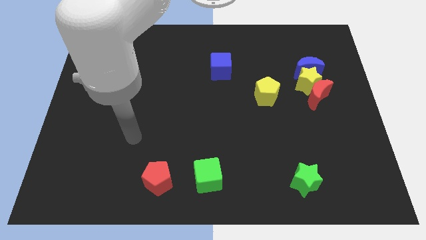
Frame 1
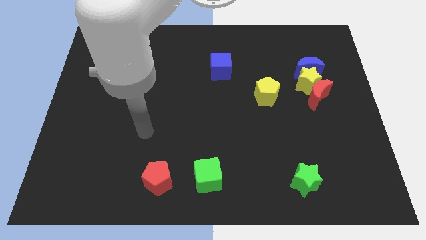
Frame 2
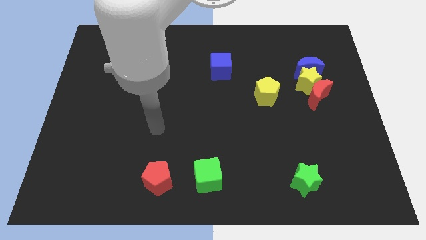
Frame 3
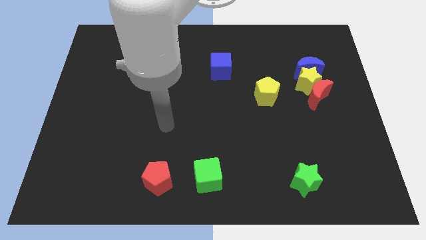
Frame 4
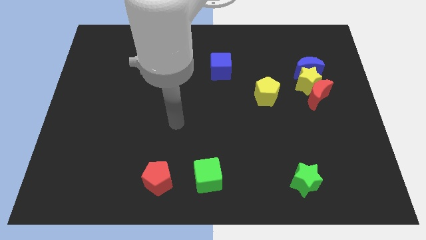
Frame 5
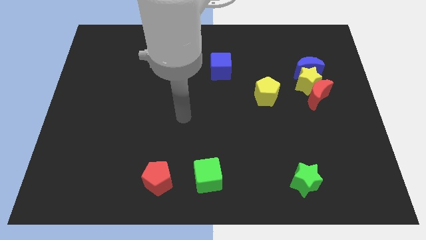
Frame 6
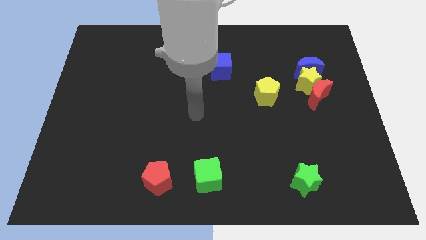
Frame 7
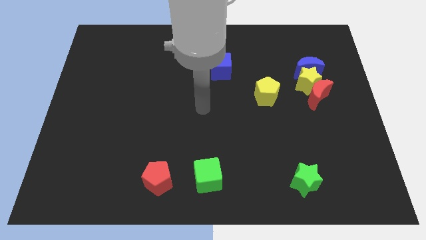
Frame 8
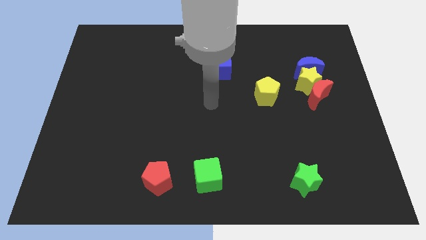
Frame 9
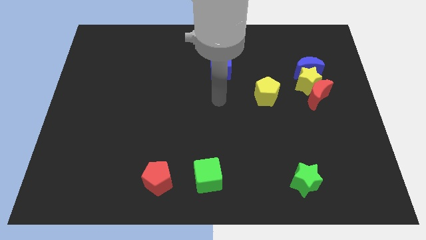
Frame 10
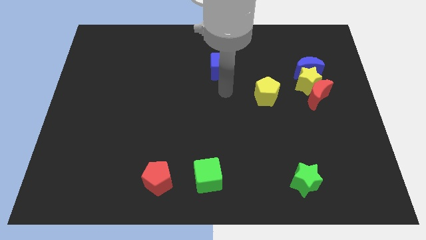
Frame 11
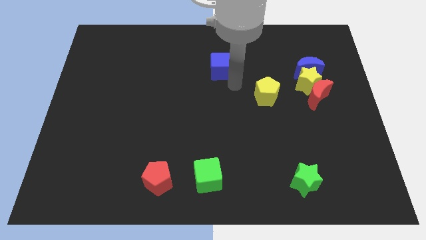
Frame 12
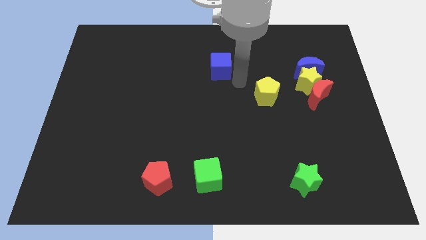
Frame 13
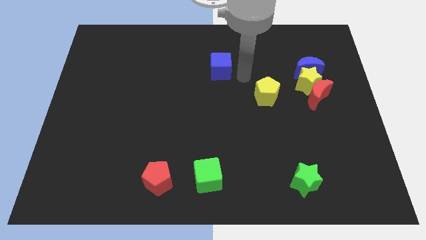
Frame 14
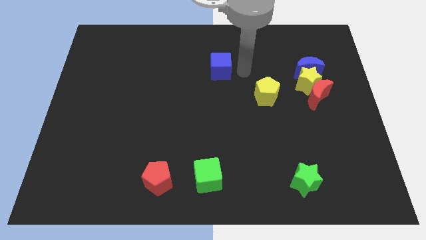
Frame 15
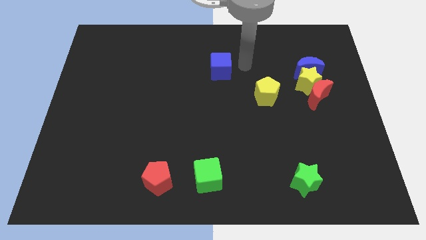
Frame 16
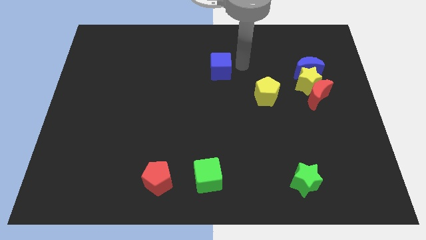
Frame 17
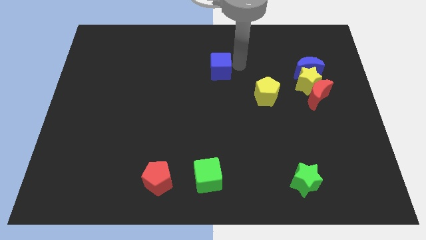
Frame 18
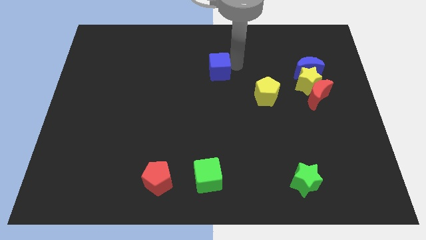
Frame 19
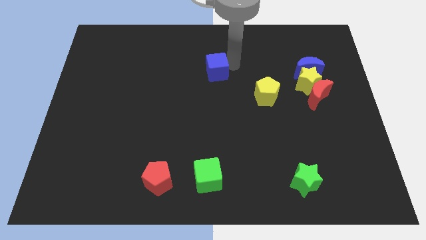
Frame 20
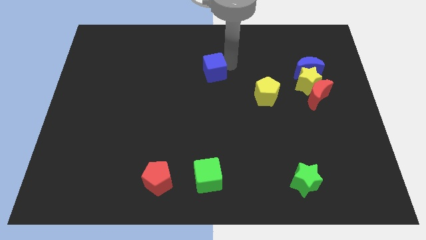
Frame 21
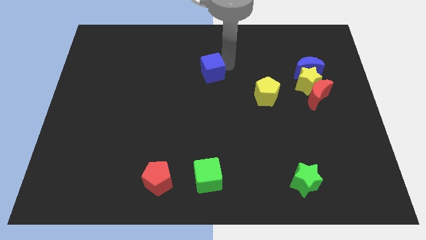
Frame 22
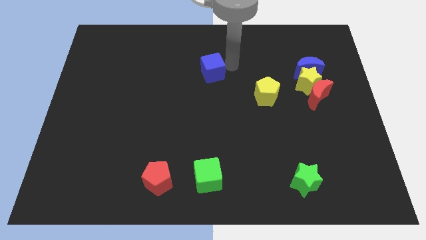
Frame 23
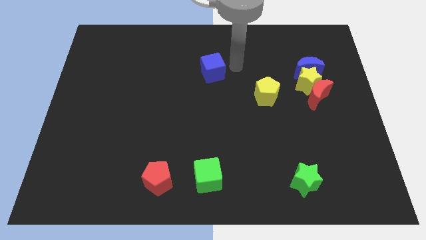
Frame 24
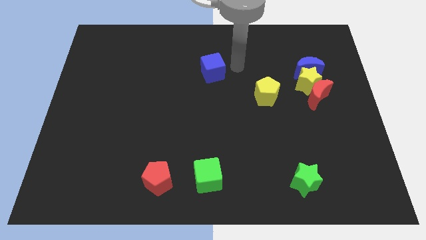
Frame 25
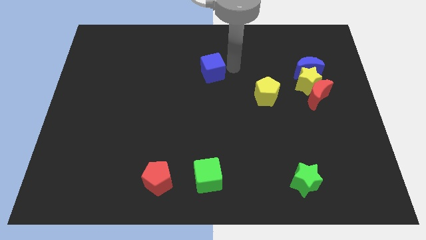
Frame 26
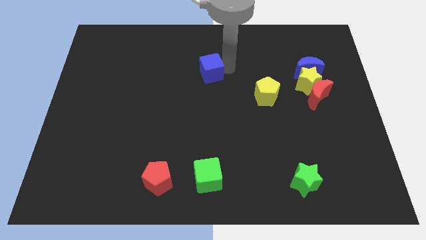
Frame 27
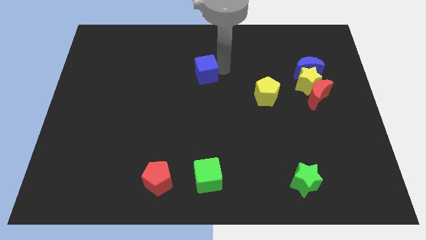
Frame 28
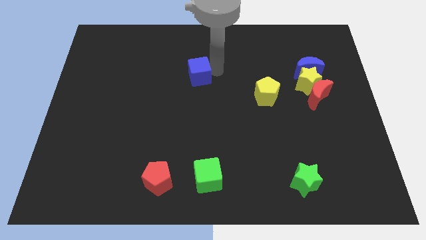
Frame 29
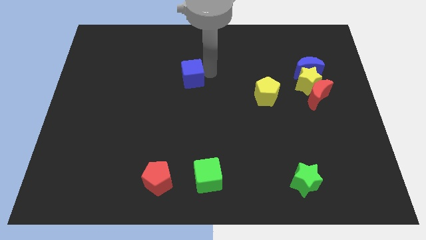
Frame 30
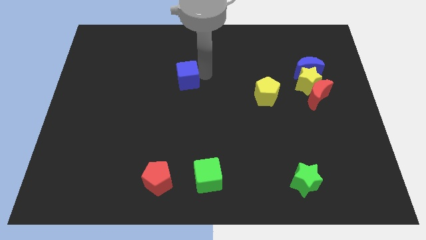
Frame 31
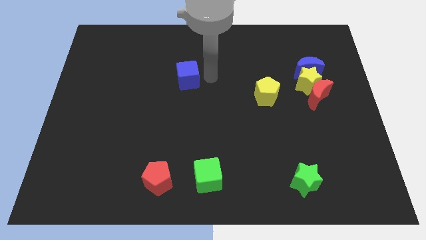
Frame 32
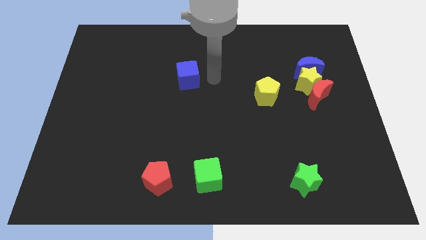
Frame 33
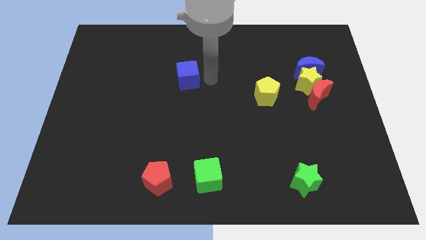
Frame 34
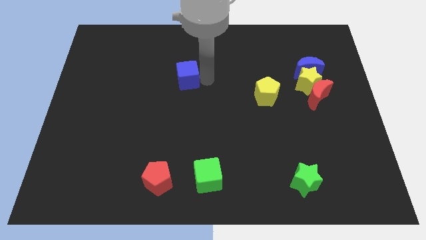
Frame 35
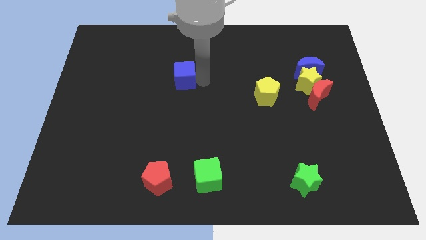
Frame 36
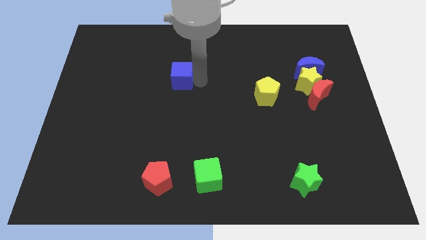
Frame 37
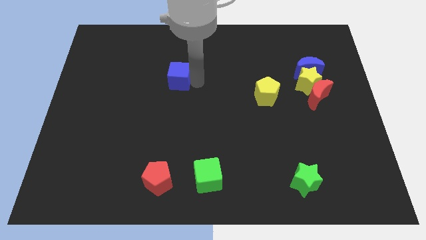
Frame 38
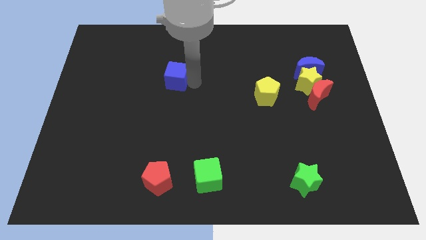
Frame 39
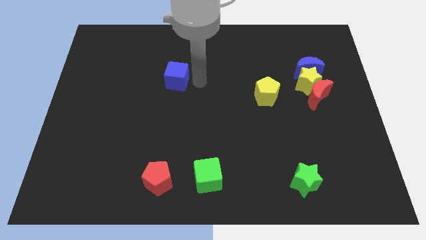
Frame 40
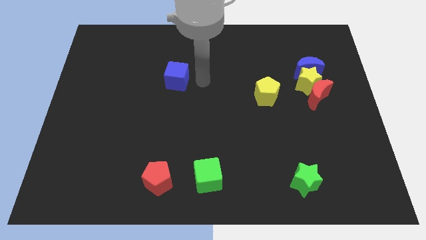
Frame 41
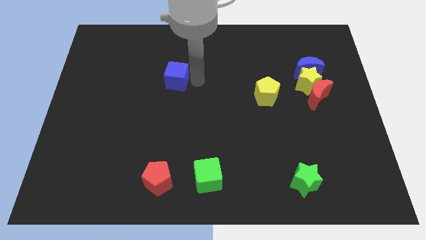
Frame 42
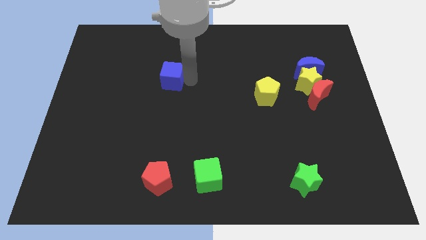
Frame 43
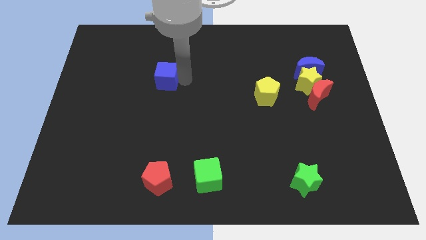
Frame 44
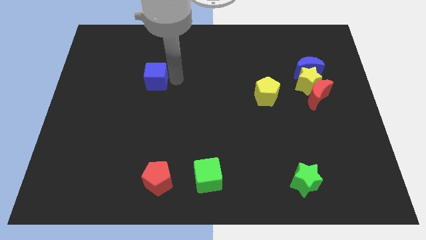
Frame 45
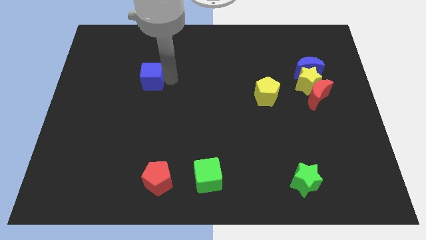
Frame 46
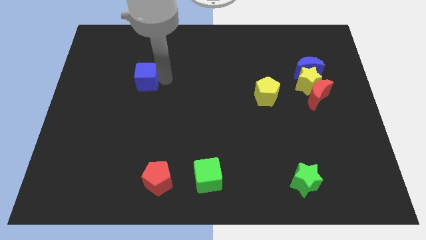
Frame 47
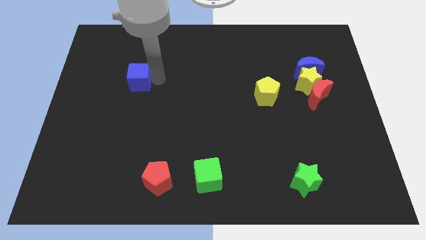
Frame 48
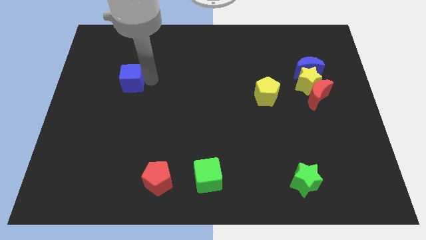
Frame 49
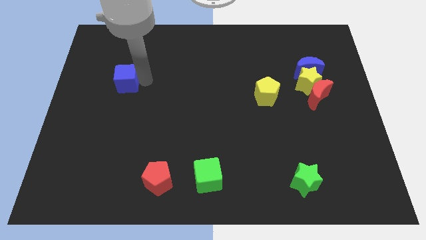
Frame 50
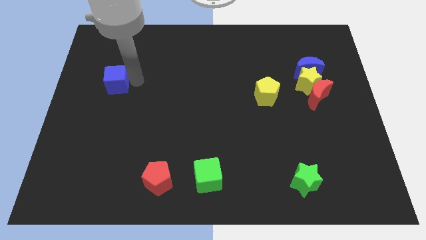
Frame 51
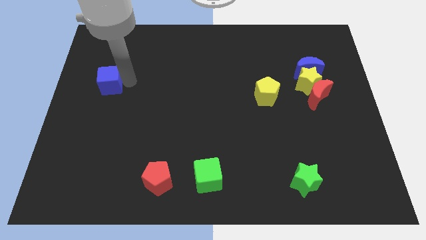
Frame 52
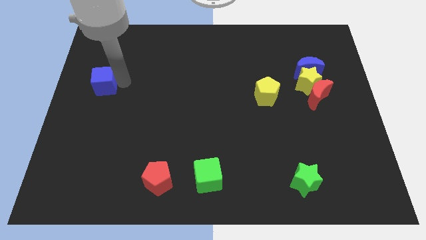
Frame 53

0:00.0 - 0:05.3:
push the blue cube to the center left

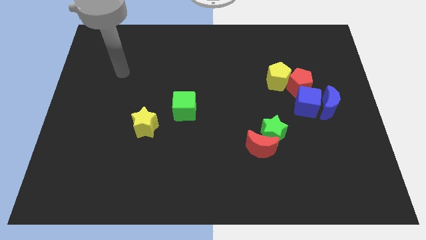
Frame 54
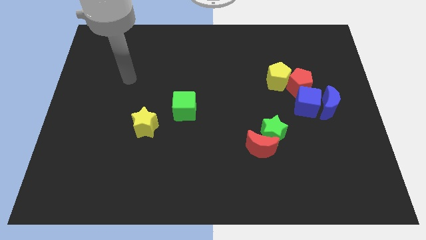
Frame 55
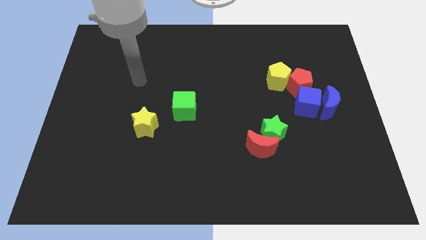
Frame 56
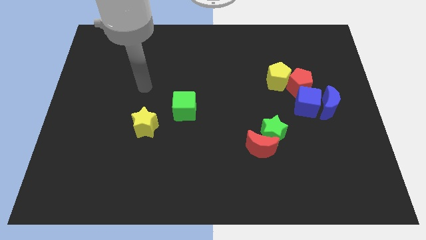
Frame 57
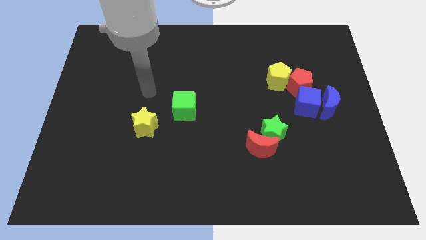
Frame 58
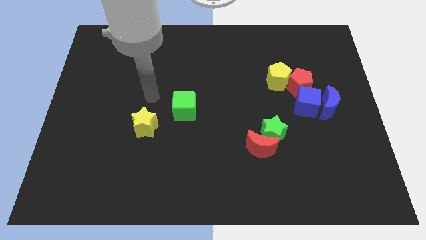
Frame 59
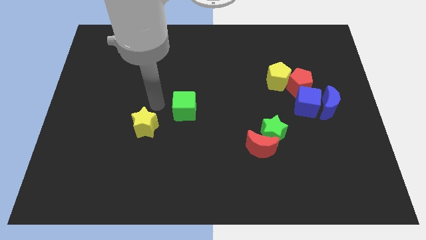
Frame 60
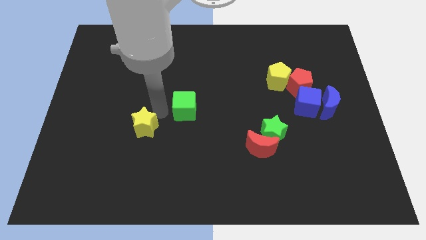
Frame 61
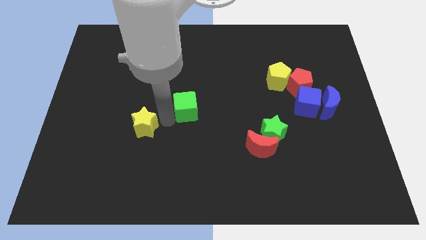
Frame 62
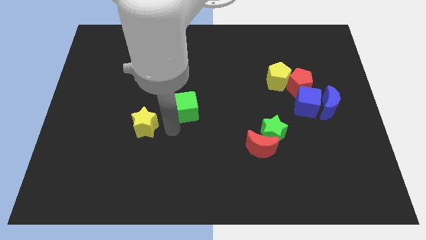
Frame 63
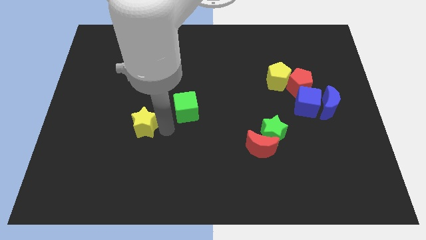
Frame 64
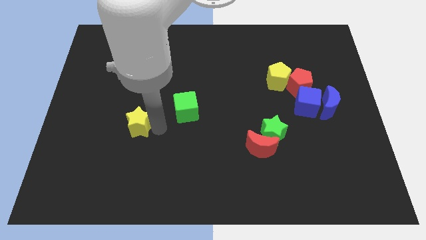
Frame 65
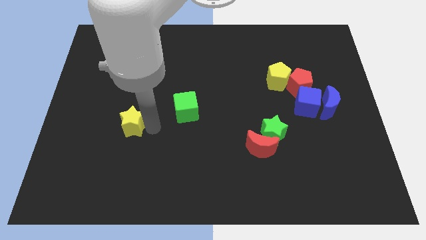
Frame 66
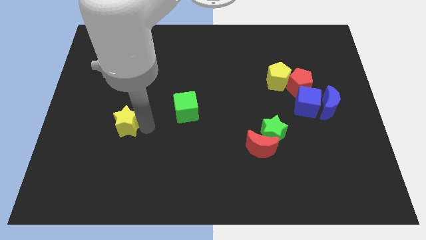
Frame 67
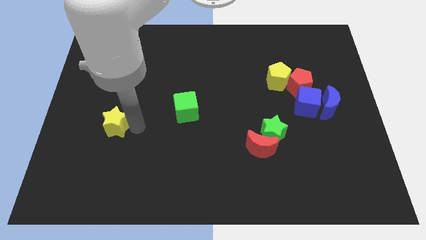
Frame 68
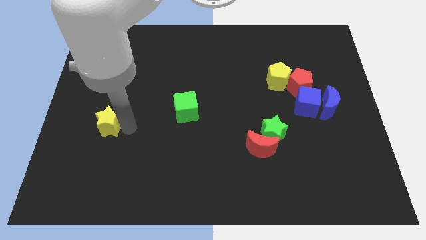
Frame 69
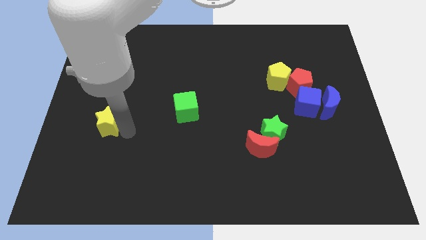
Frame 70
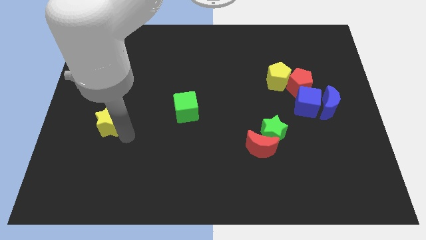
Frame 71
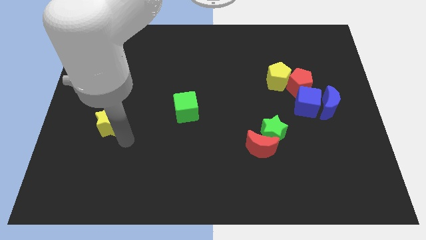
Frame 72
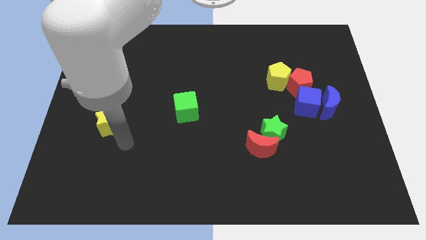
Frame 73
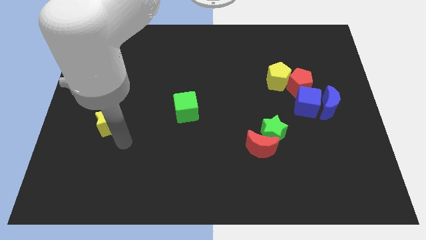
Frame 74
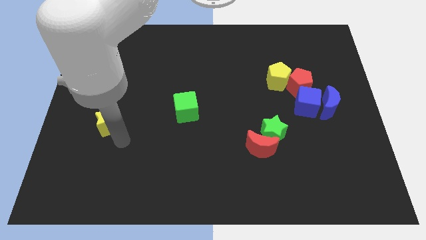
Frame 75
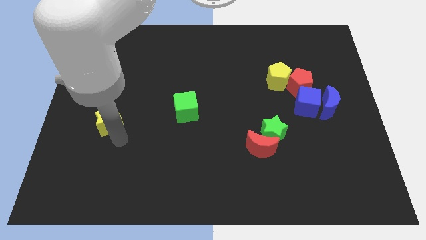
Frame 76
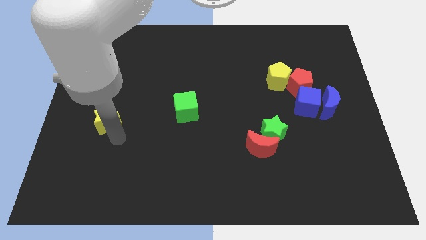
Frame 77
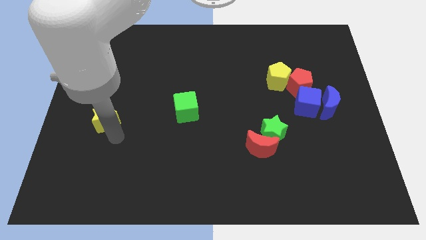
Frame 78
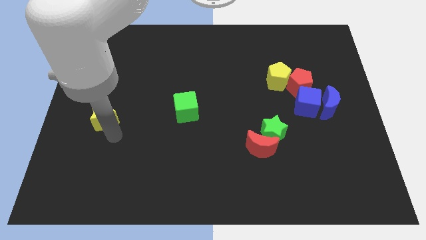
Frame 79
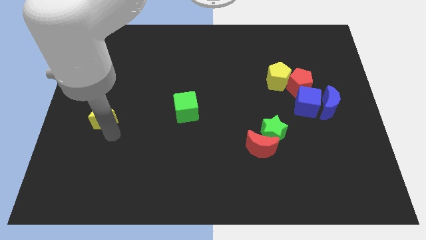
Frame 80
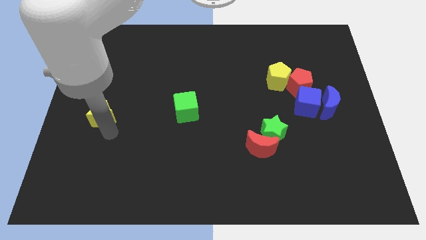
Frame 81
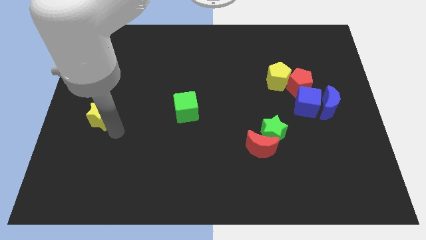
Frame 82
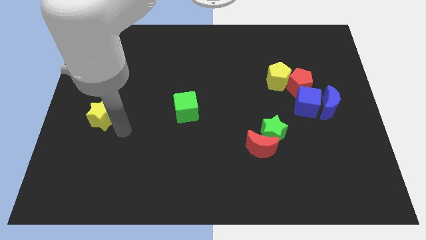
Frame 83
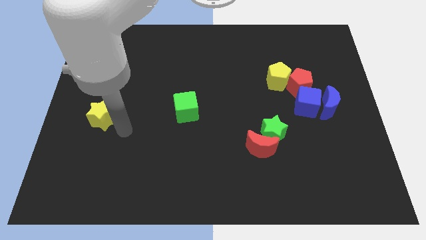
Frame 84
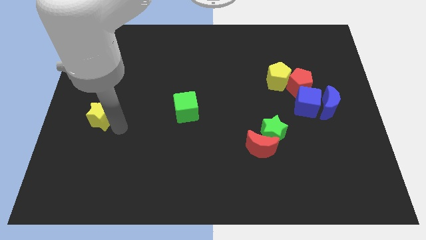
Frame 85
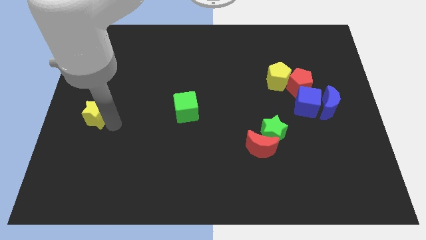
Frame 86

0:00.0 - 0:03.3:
push the yellow star to the left side
